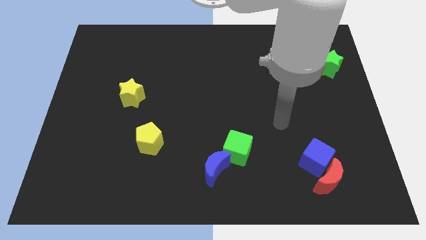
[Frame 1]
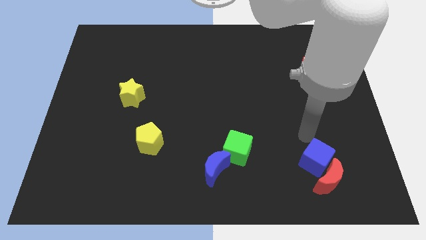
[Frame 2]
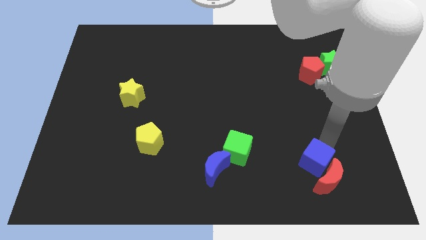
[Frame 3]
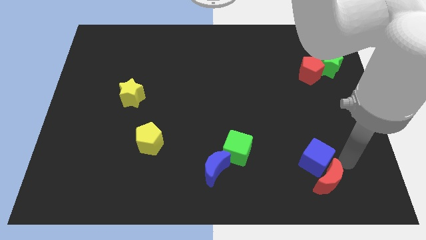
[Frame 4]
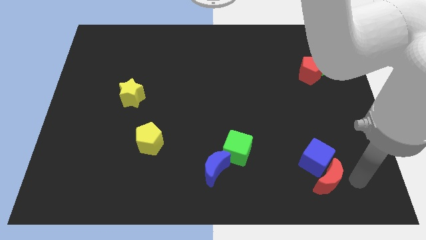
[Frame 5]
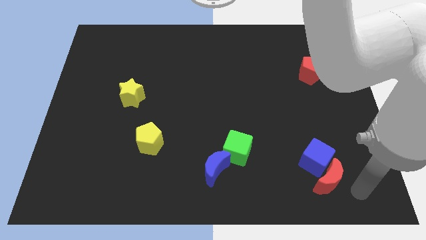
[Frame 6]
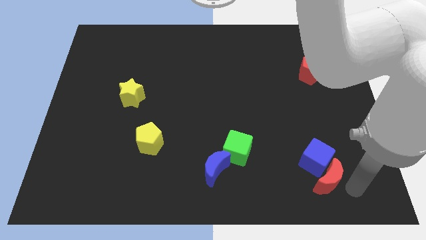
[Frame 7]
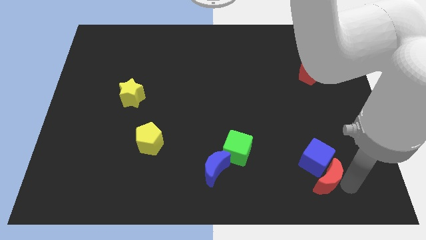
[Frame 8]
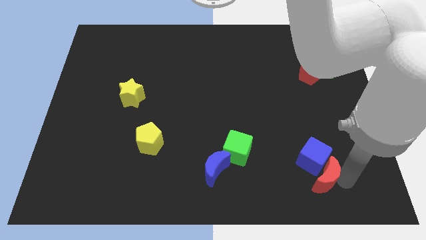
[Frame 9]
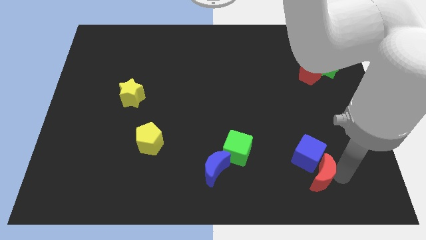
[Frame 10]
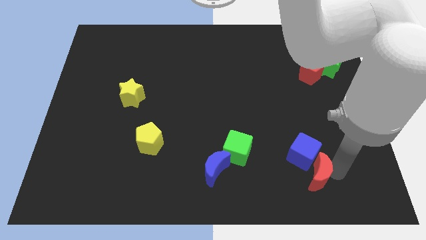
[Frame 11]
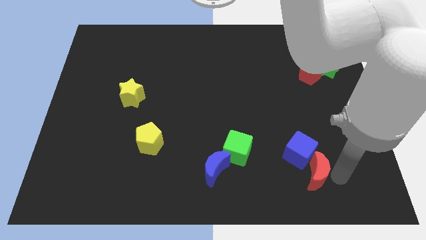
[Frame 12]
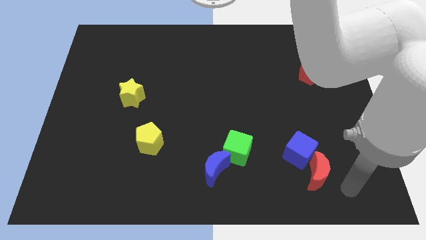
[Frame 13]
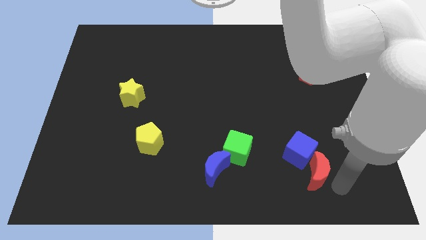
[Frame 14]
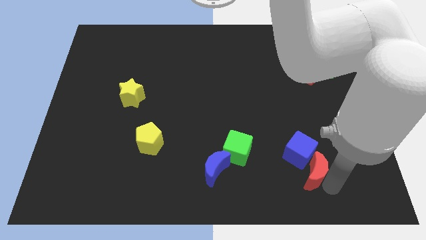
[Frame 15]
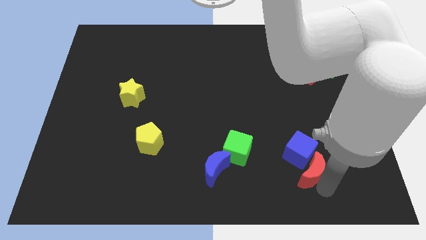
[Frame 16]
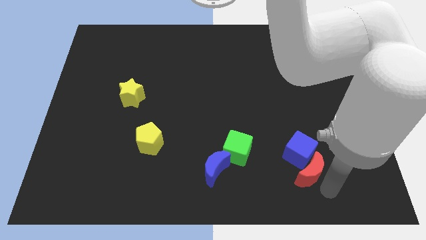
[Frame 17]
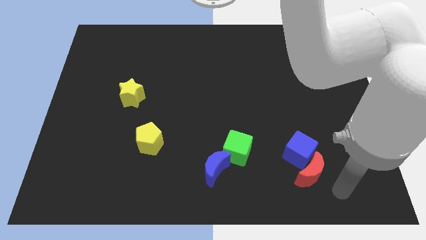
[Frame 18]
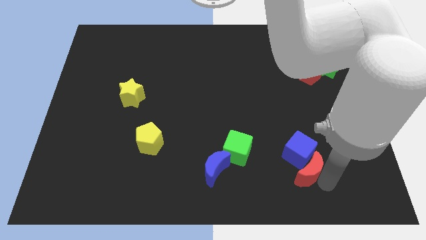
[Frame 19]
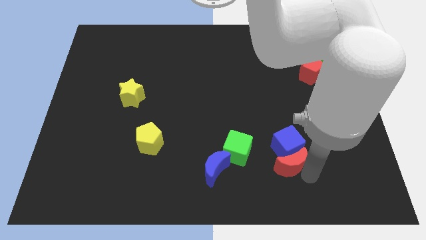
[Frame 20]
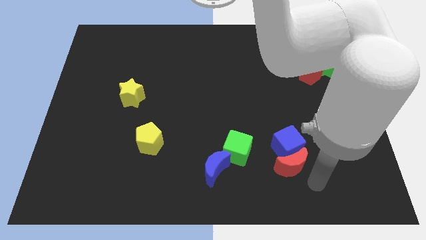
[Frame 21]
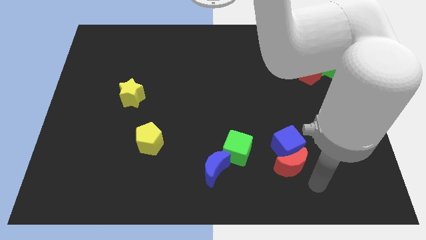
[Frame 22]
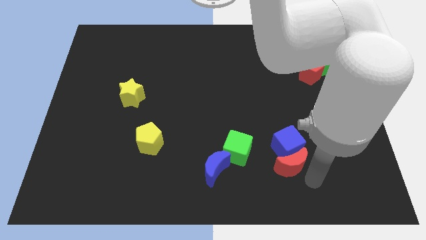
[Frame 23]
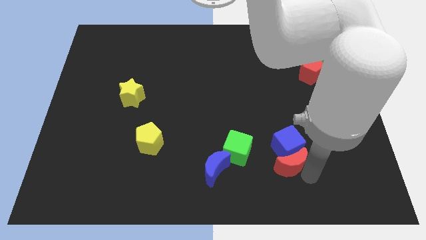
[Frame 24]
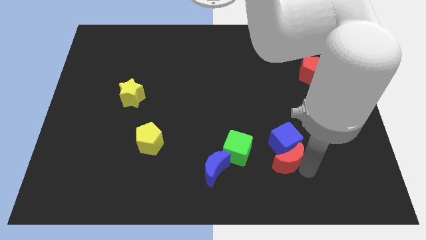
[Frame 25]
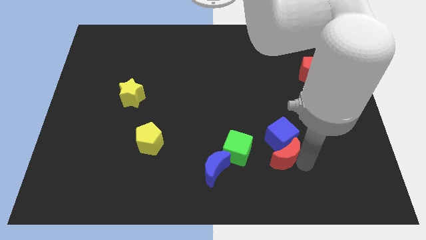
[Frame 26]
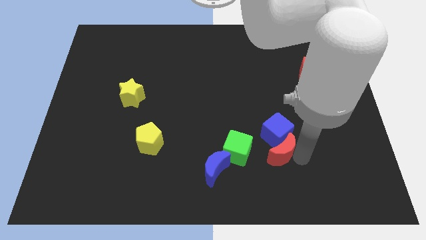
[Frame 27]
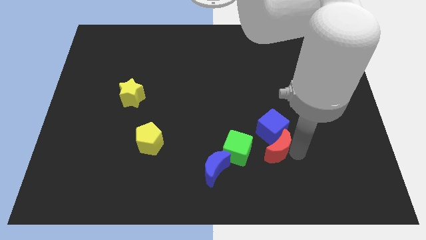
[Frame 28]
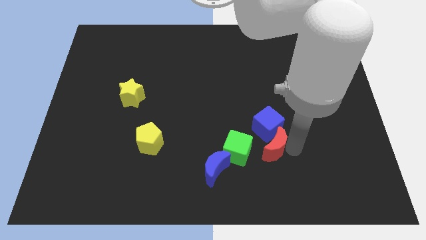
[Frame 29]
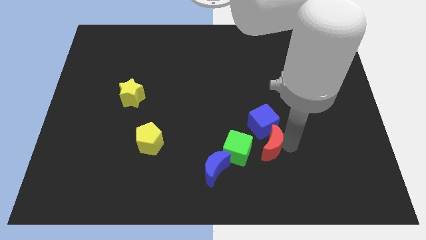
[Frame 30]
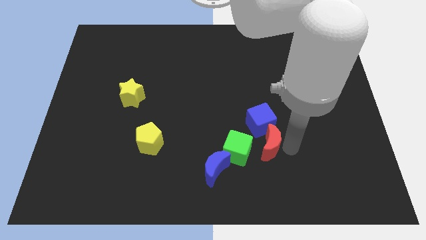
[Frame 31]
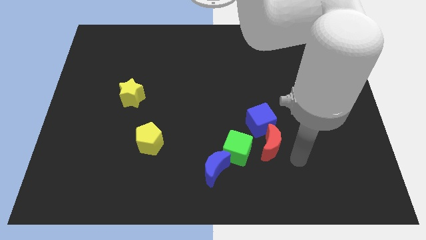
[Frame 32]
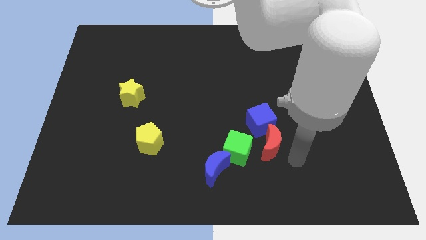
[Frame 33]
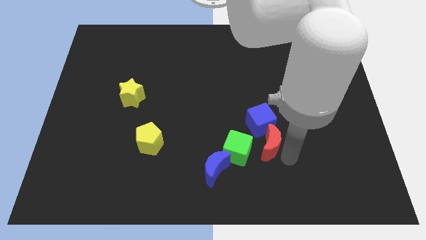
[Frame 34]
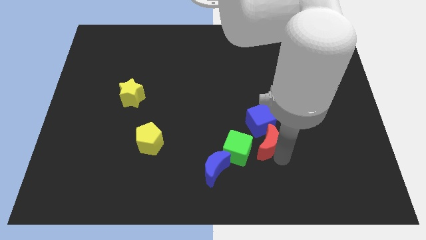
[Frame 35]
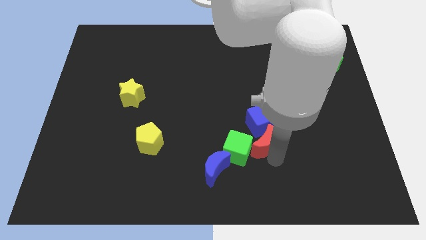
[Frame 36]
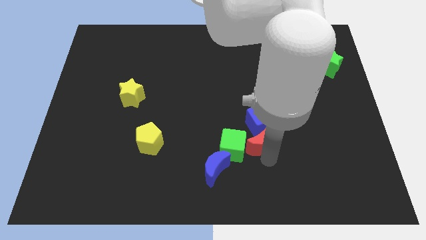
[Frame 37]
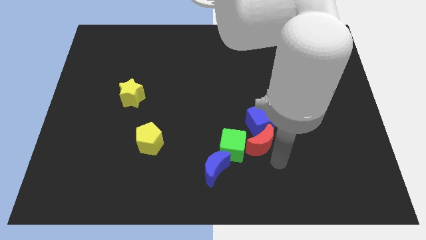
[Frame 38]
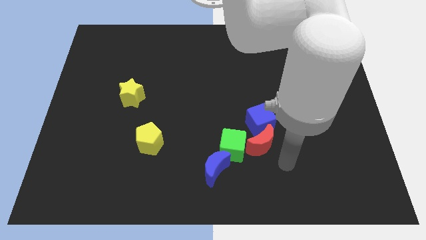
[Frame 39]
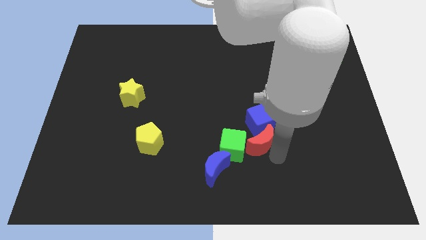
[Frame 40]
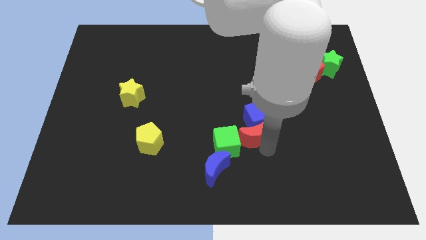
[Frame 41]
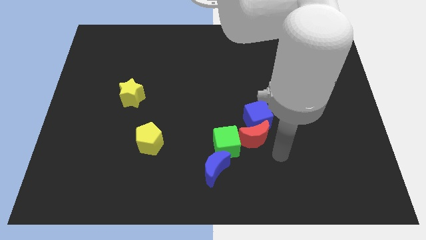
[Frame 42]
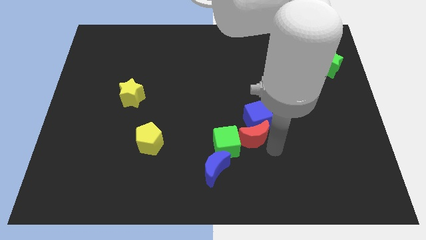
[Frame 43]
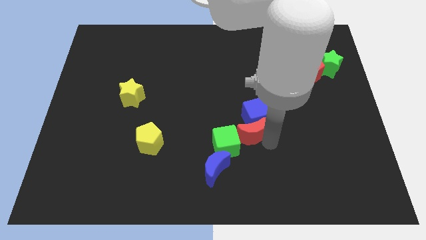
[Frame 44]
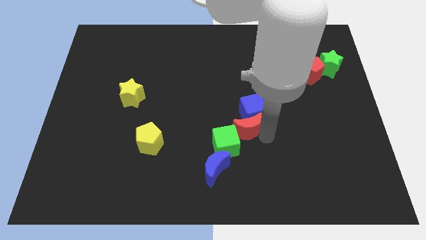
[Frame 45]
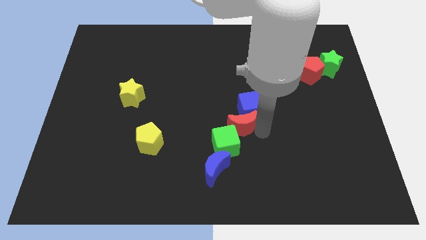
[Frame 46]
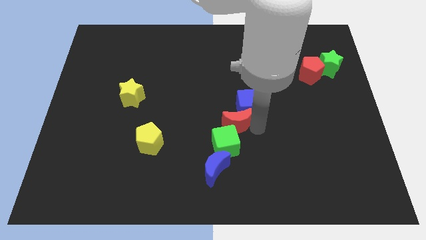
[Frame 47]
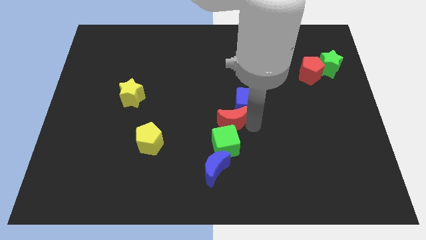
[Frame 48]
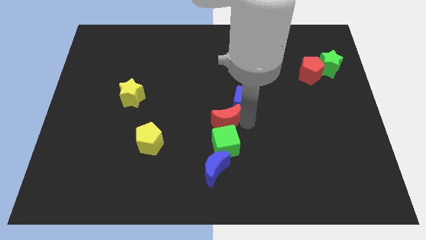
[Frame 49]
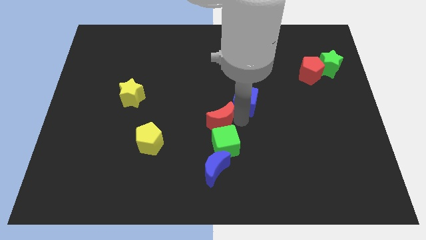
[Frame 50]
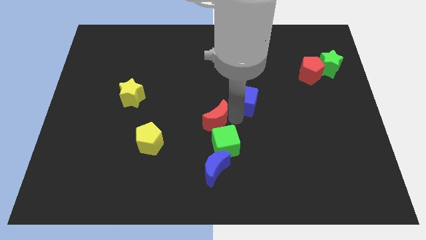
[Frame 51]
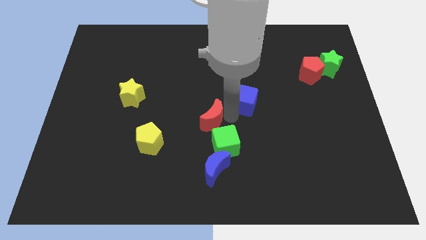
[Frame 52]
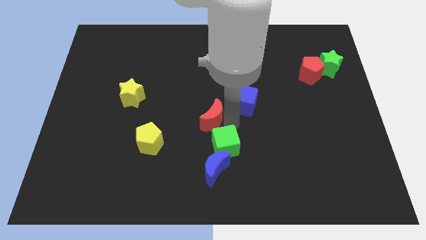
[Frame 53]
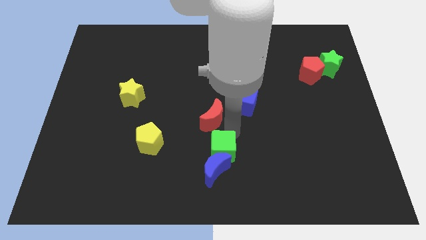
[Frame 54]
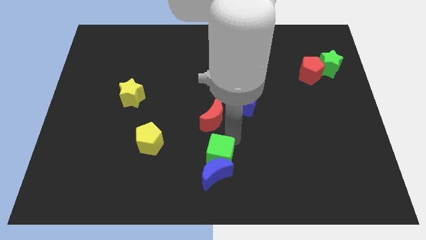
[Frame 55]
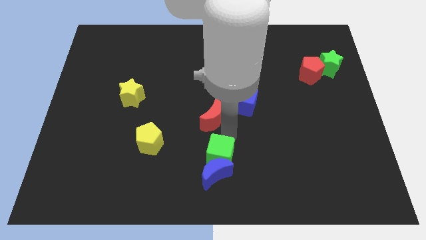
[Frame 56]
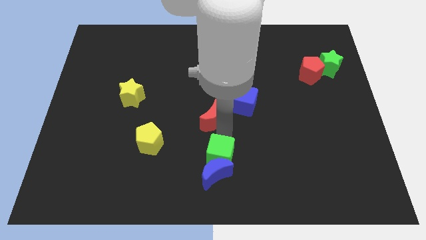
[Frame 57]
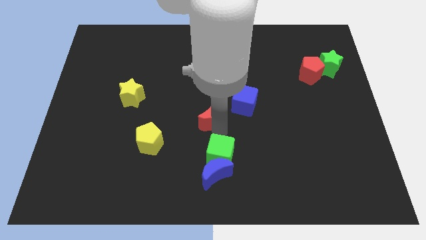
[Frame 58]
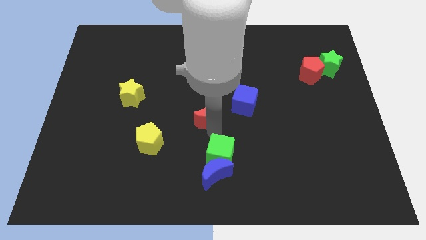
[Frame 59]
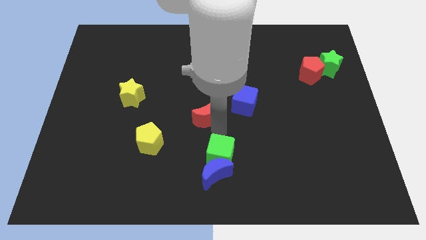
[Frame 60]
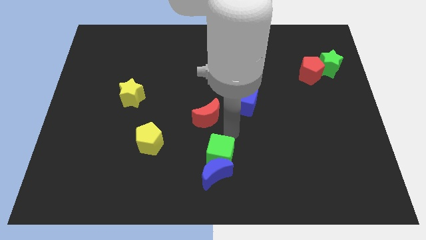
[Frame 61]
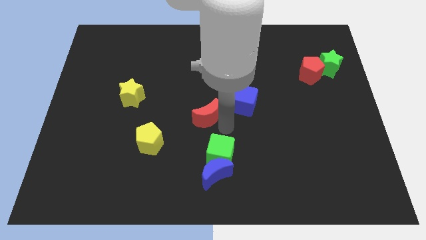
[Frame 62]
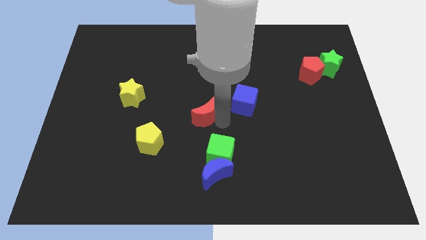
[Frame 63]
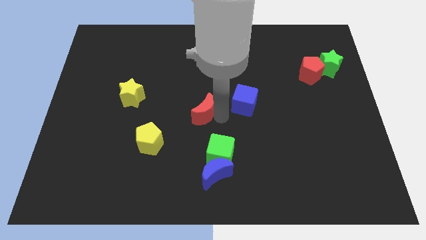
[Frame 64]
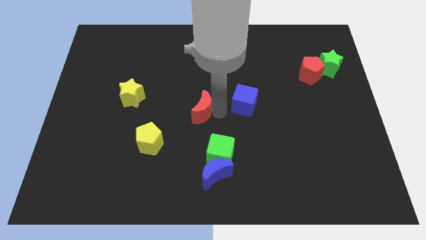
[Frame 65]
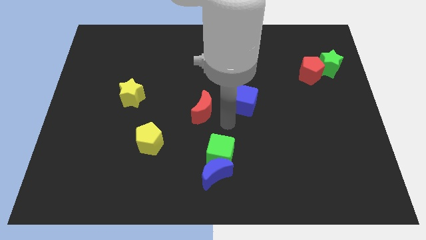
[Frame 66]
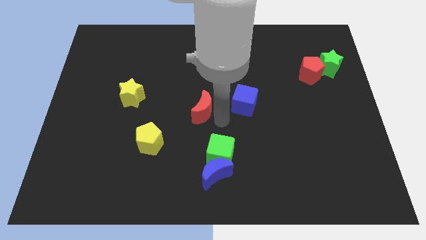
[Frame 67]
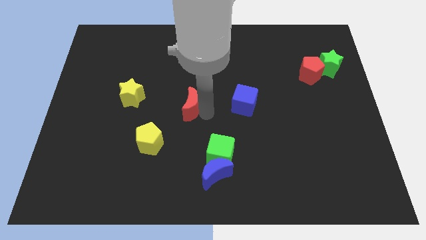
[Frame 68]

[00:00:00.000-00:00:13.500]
push the red moon right of the yellow star
